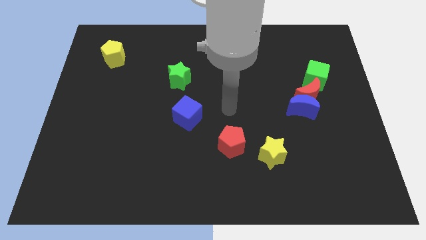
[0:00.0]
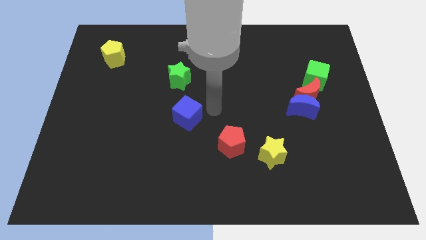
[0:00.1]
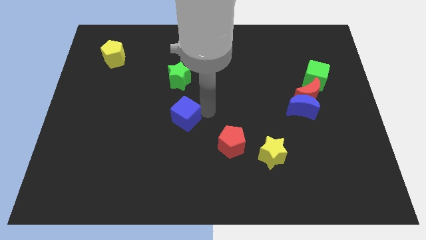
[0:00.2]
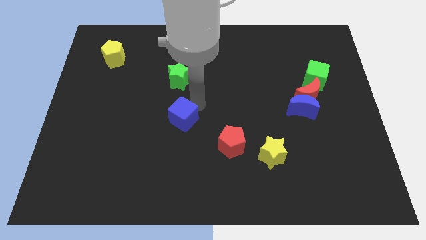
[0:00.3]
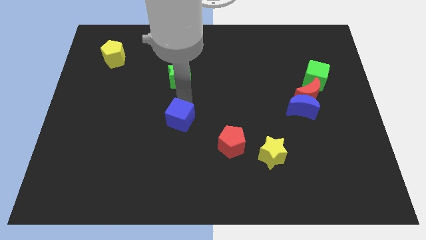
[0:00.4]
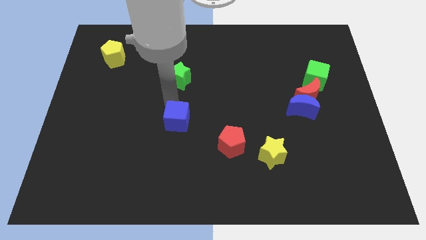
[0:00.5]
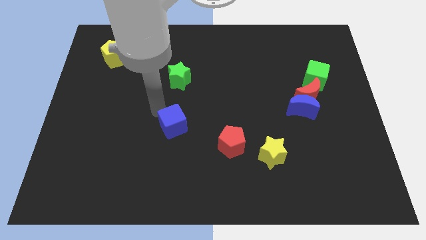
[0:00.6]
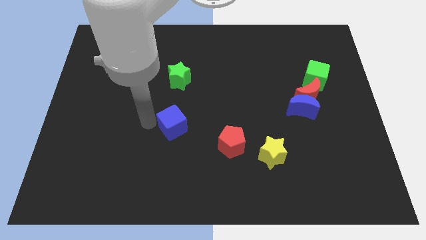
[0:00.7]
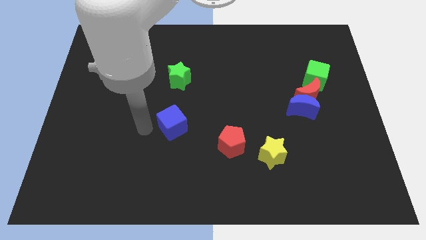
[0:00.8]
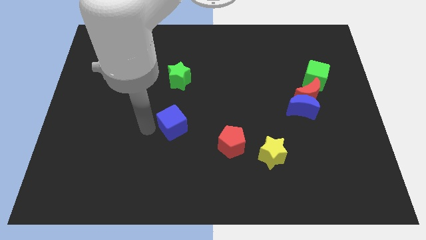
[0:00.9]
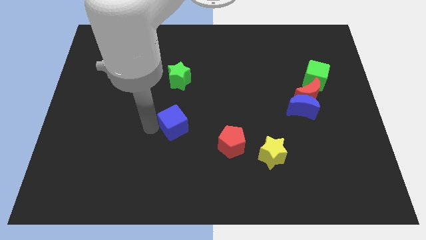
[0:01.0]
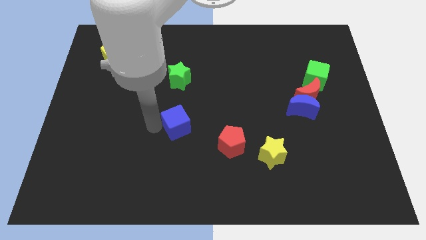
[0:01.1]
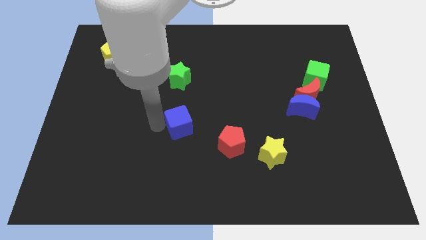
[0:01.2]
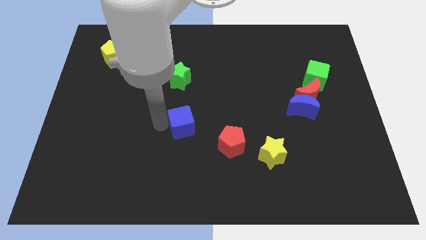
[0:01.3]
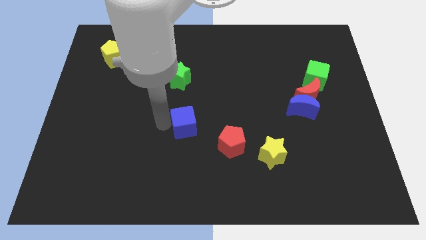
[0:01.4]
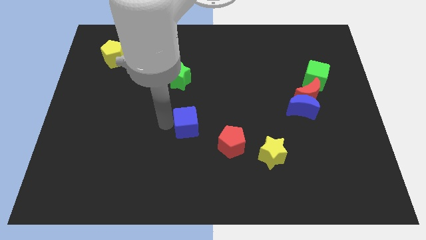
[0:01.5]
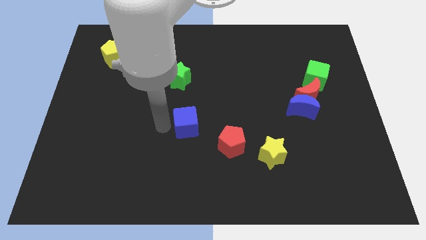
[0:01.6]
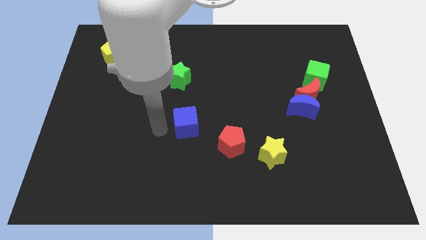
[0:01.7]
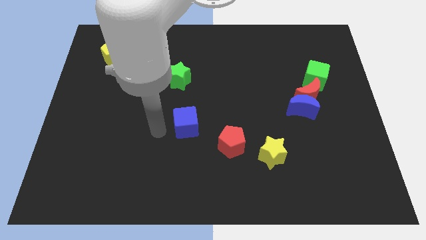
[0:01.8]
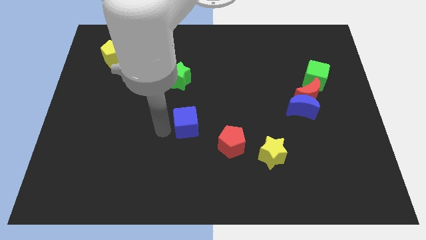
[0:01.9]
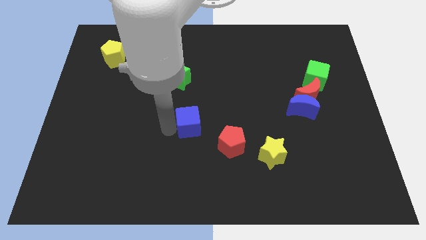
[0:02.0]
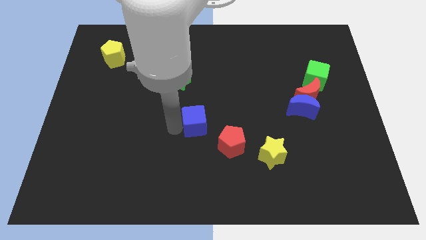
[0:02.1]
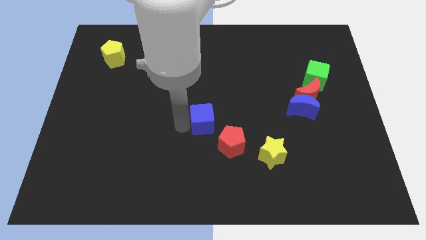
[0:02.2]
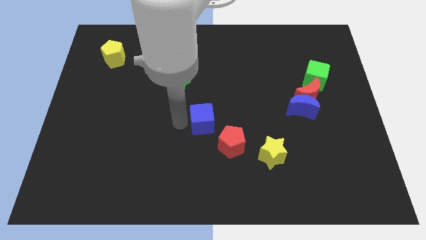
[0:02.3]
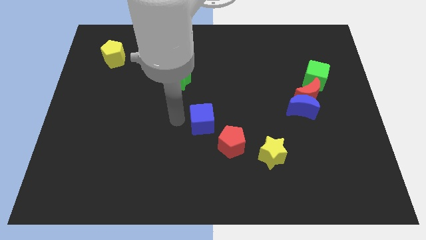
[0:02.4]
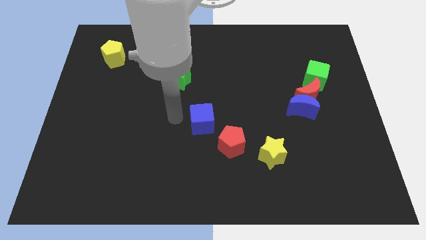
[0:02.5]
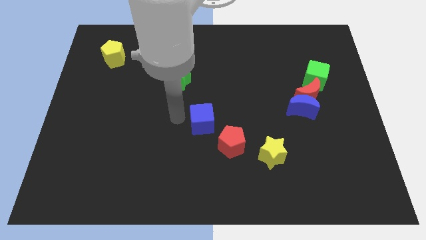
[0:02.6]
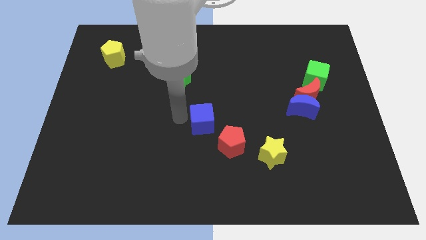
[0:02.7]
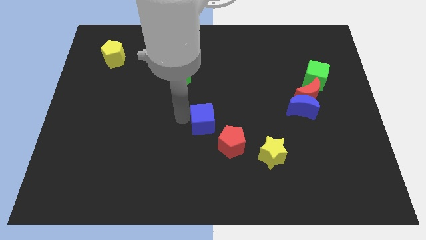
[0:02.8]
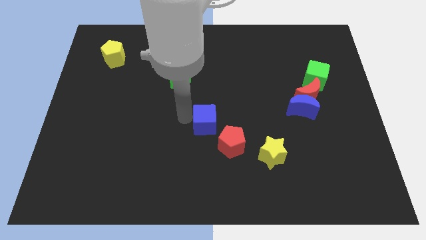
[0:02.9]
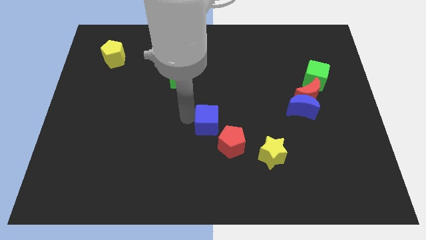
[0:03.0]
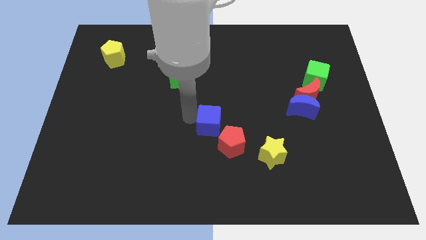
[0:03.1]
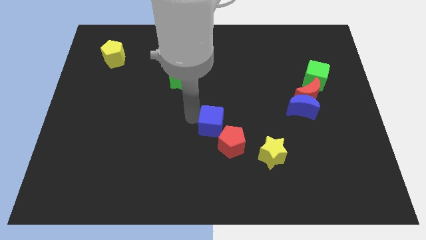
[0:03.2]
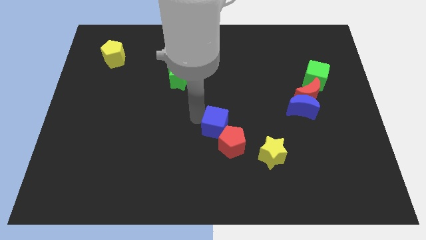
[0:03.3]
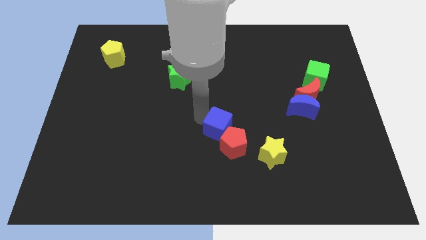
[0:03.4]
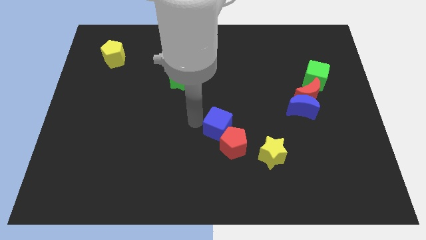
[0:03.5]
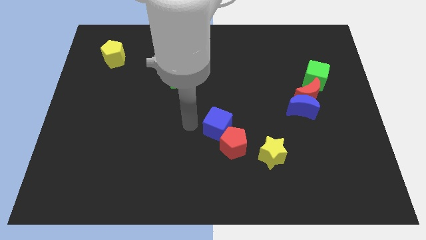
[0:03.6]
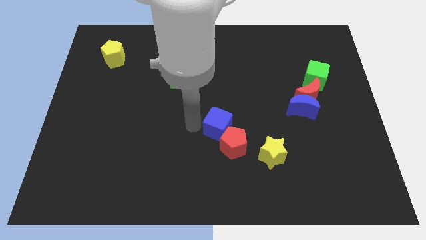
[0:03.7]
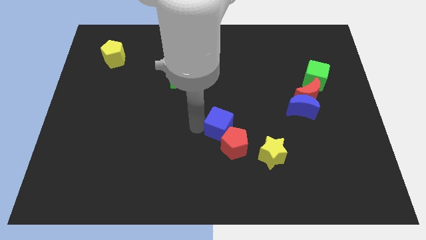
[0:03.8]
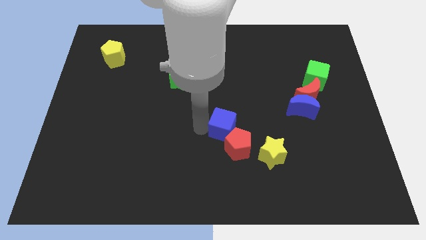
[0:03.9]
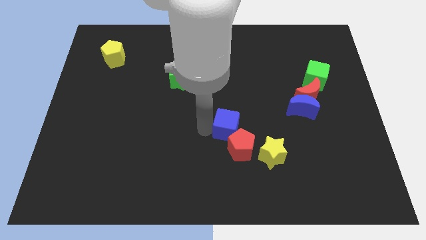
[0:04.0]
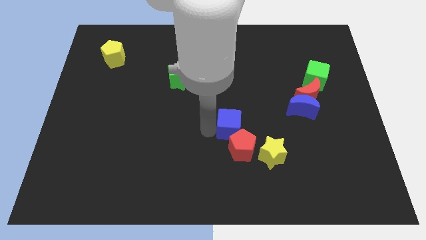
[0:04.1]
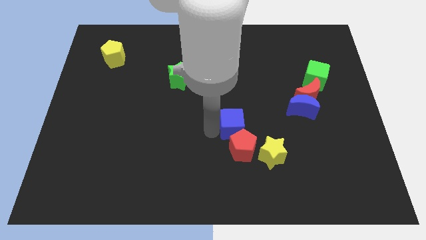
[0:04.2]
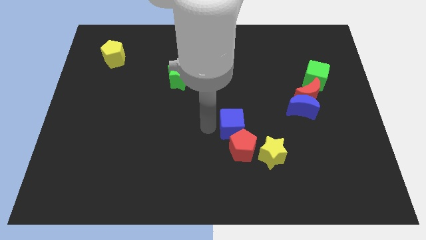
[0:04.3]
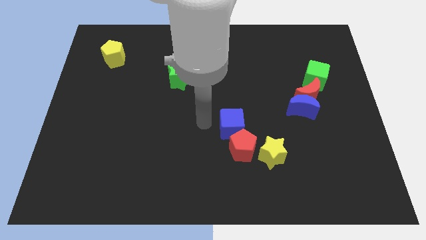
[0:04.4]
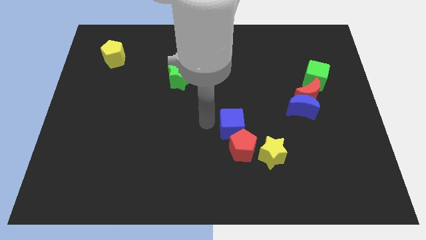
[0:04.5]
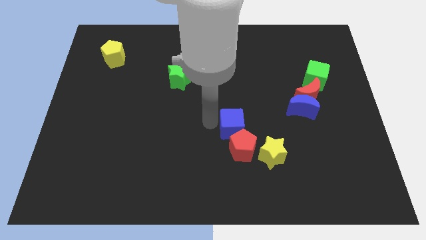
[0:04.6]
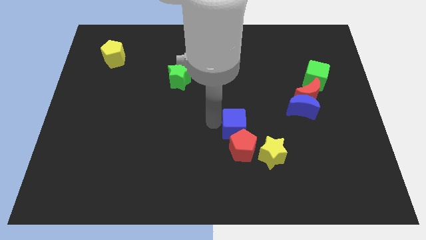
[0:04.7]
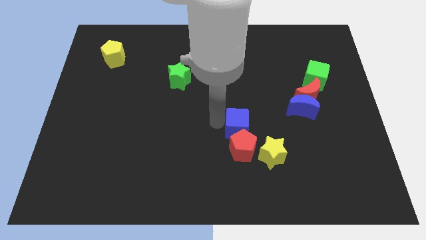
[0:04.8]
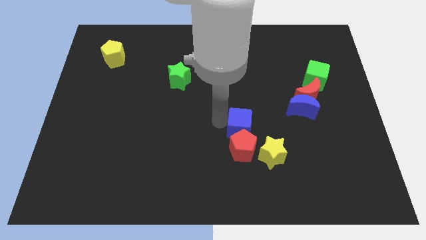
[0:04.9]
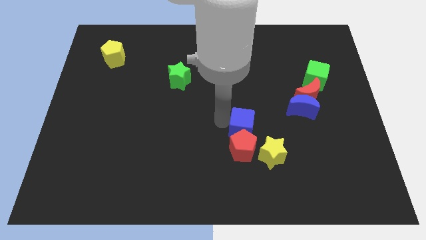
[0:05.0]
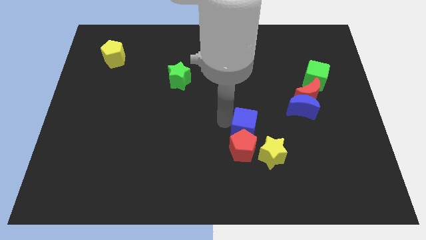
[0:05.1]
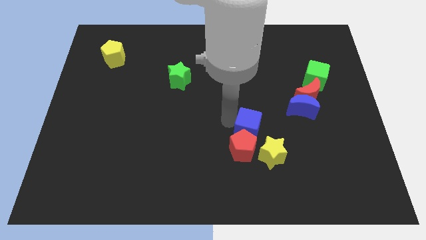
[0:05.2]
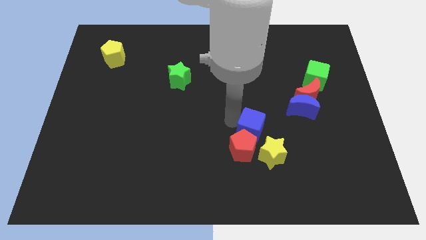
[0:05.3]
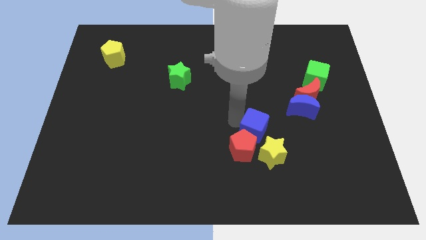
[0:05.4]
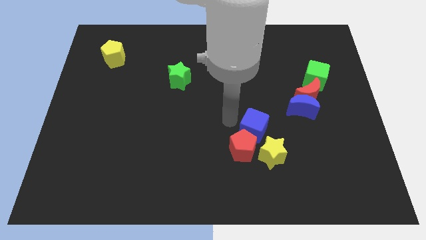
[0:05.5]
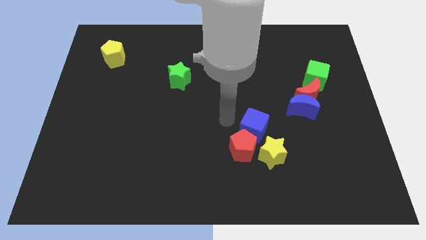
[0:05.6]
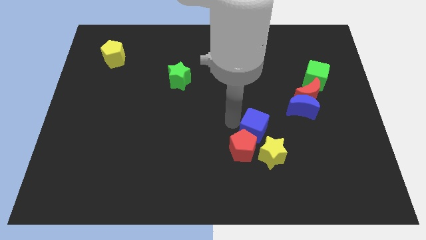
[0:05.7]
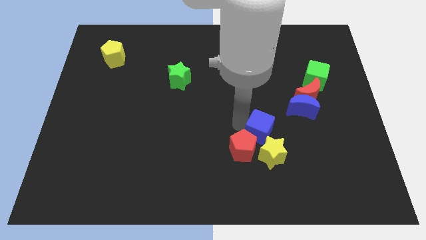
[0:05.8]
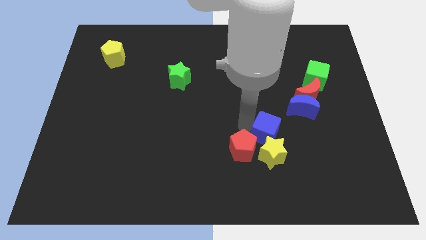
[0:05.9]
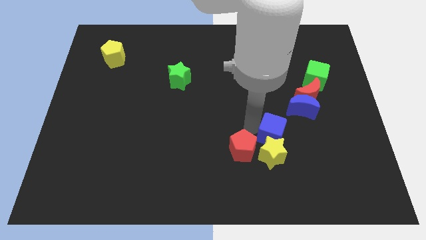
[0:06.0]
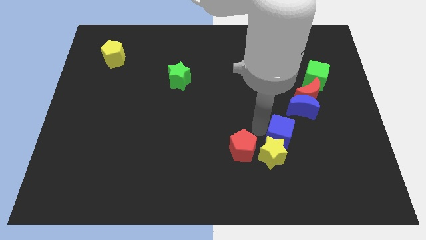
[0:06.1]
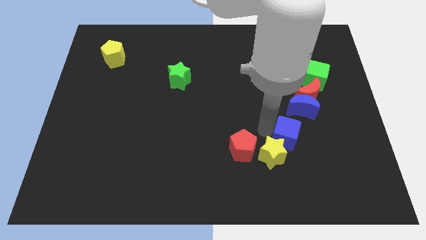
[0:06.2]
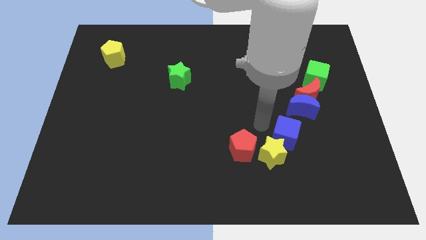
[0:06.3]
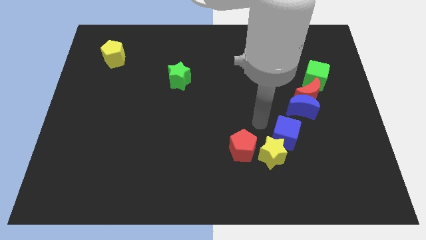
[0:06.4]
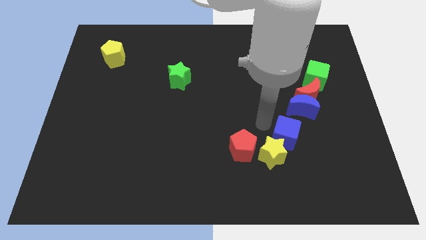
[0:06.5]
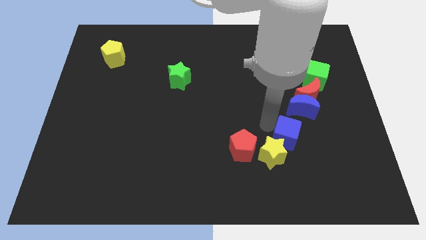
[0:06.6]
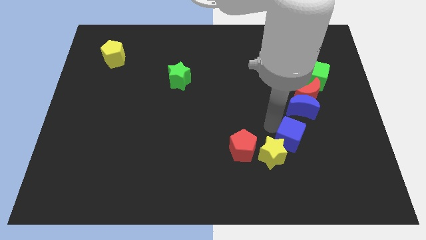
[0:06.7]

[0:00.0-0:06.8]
put the blue cube to the right of the yellow star
